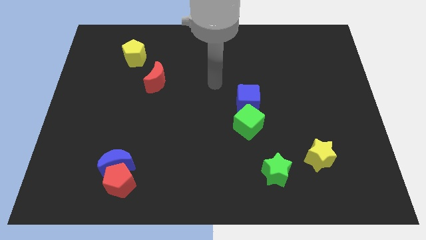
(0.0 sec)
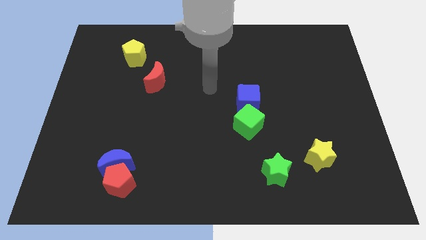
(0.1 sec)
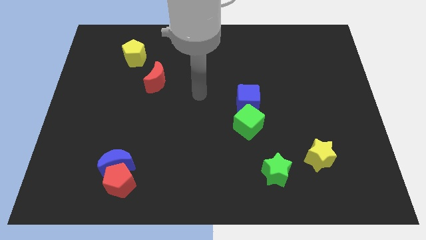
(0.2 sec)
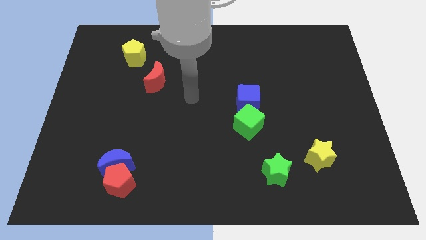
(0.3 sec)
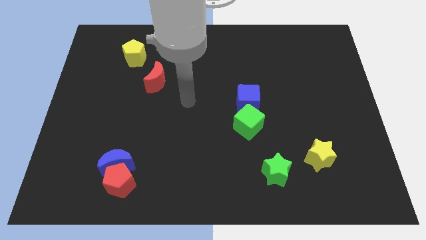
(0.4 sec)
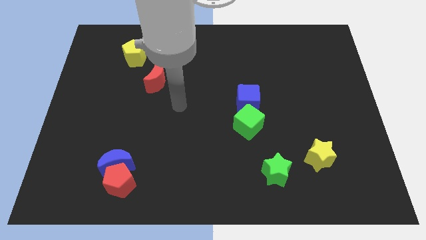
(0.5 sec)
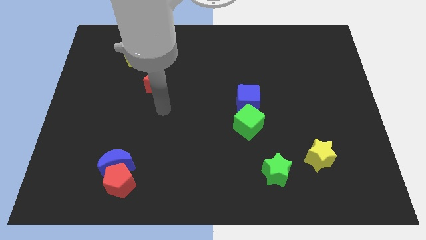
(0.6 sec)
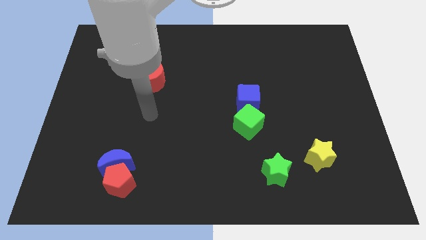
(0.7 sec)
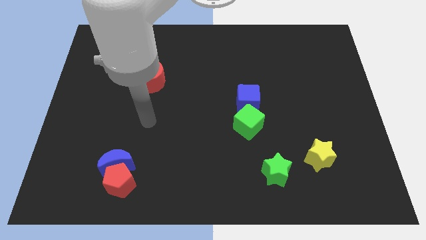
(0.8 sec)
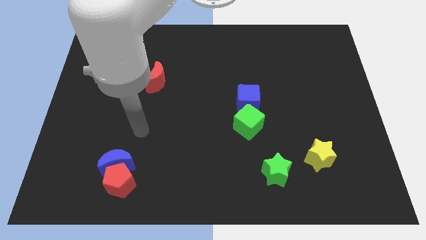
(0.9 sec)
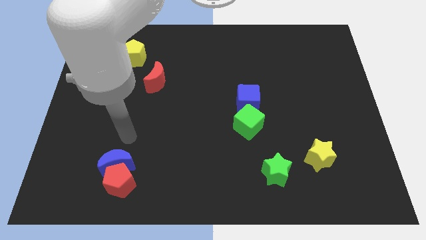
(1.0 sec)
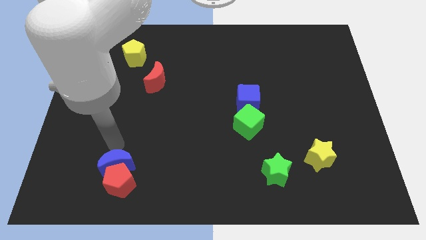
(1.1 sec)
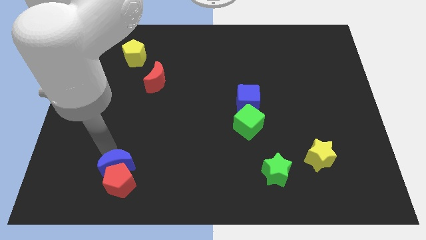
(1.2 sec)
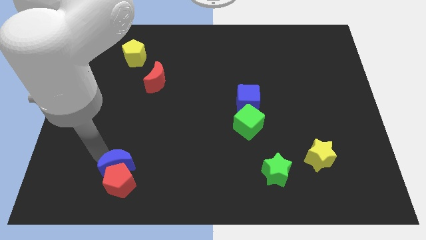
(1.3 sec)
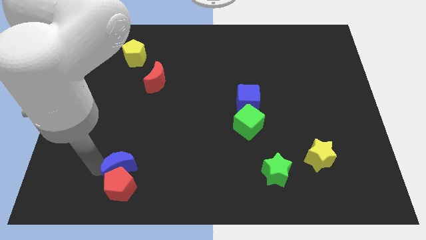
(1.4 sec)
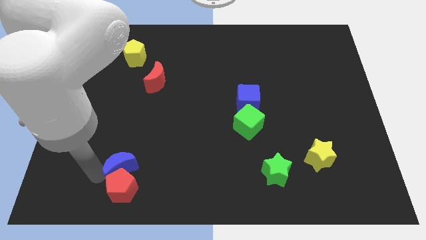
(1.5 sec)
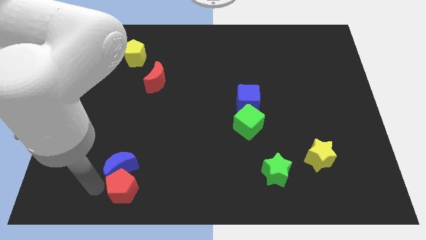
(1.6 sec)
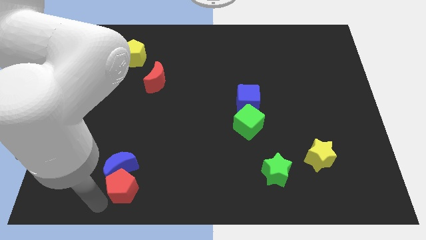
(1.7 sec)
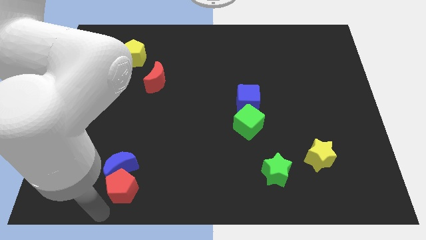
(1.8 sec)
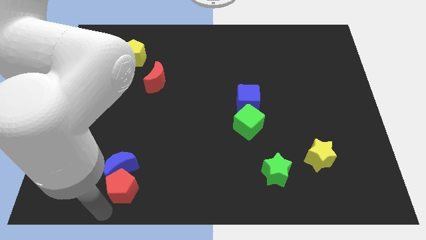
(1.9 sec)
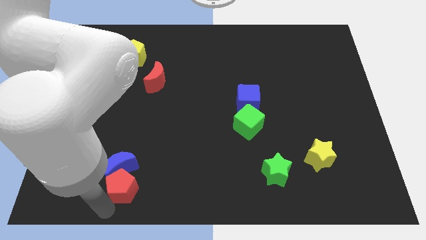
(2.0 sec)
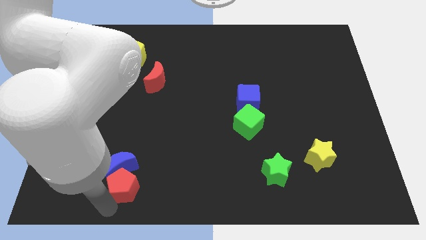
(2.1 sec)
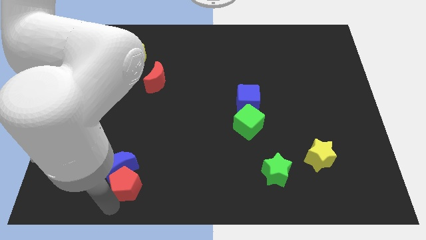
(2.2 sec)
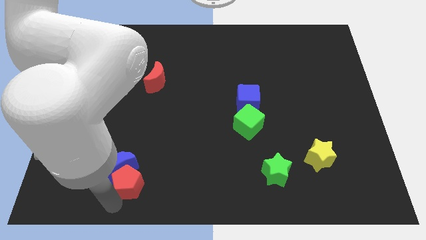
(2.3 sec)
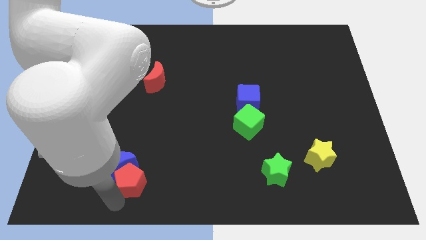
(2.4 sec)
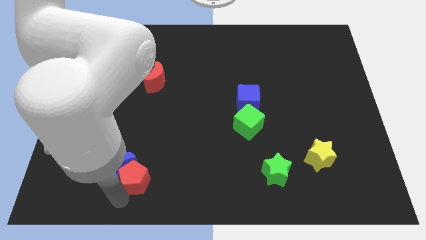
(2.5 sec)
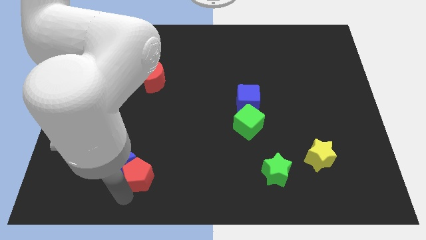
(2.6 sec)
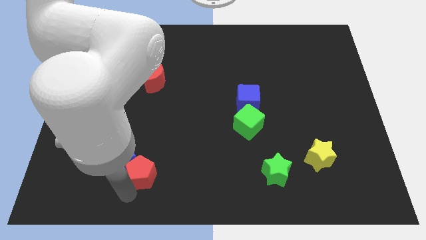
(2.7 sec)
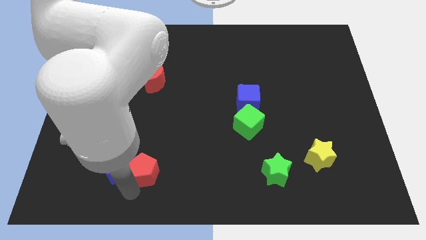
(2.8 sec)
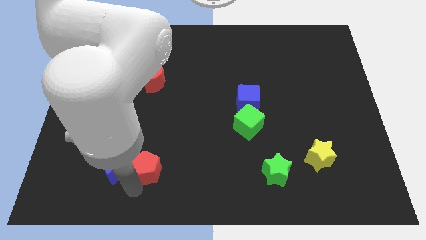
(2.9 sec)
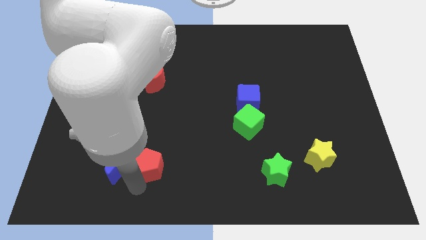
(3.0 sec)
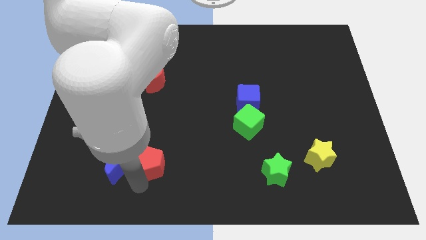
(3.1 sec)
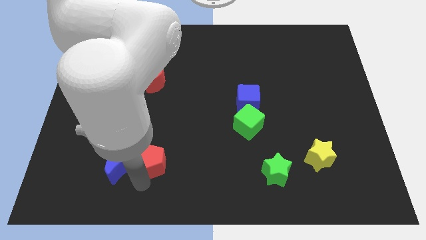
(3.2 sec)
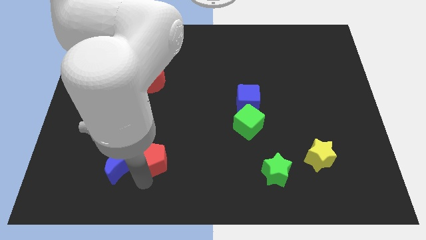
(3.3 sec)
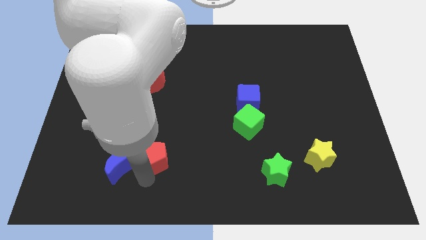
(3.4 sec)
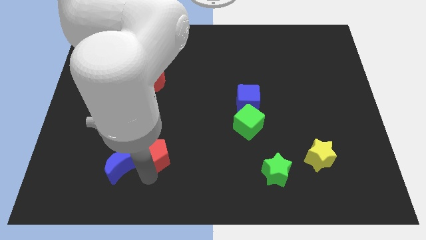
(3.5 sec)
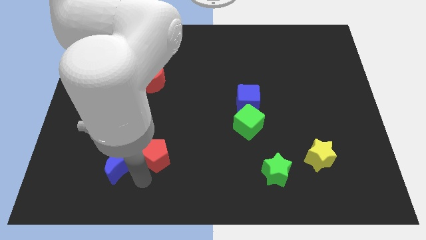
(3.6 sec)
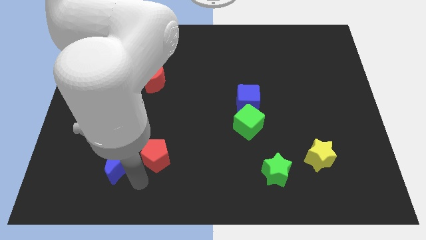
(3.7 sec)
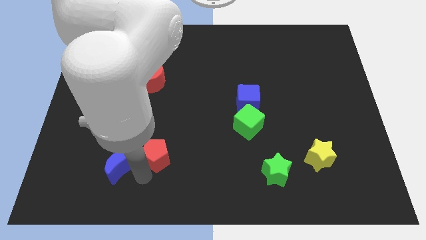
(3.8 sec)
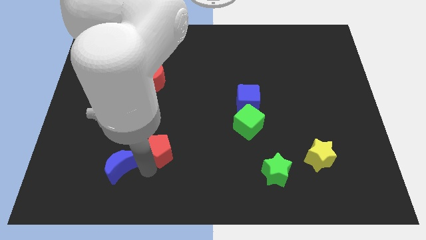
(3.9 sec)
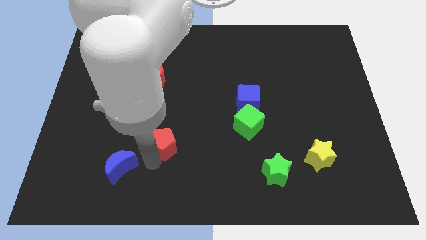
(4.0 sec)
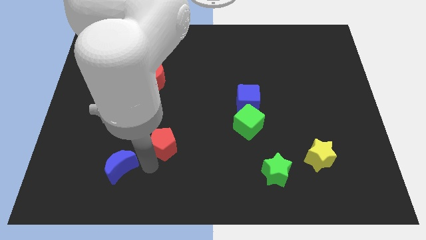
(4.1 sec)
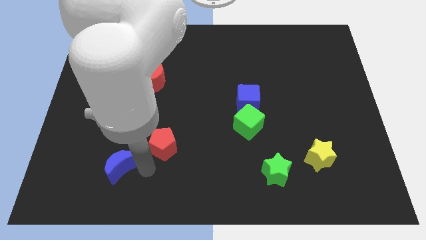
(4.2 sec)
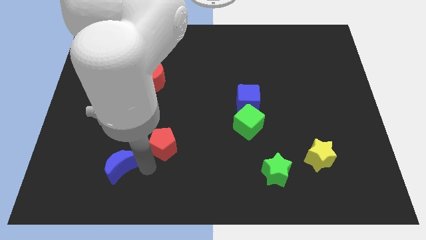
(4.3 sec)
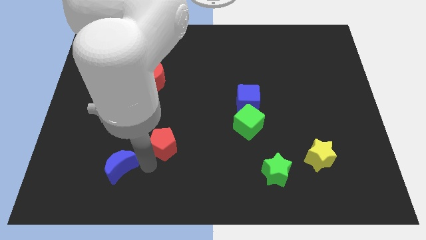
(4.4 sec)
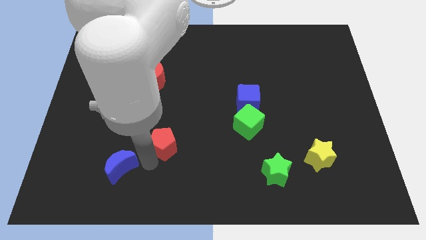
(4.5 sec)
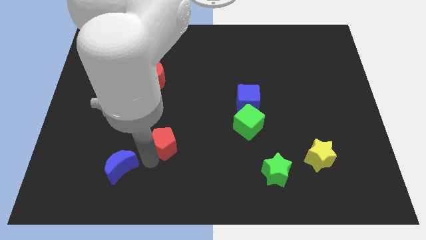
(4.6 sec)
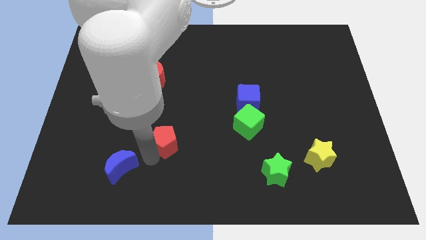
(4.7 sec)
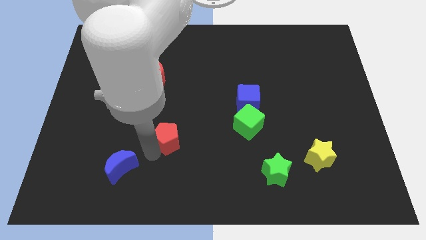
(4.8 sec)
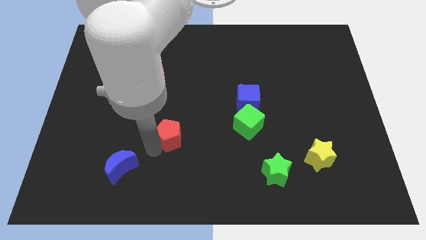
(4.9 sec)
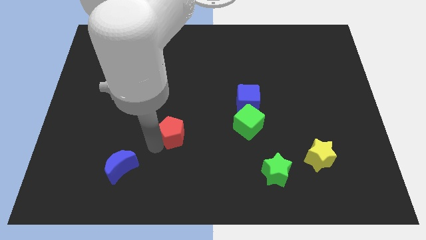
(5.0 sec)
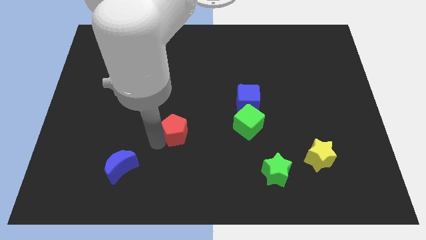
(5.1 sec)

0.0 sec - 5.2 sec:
move the red pentagon to the middle of the board

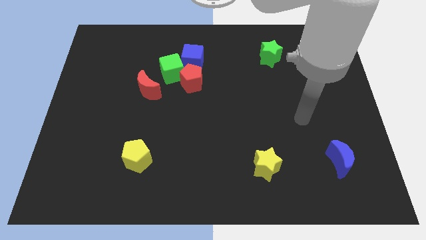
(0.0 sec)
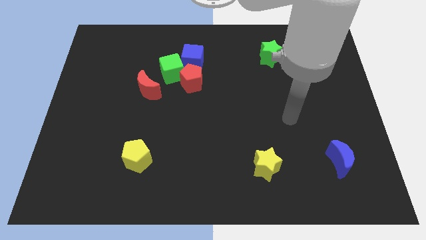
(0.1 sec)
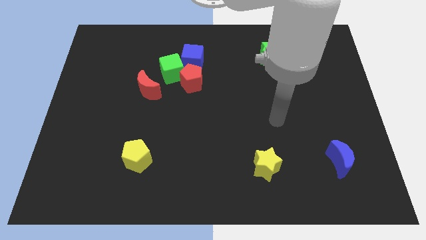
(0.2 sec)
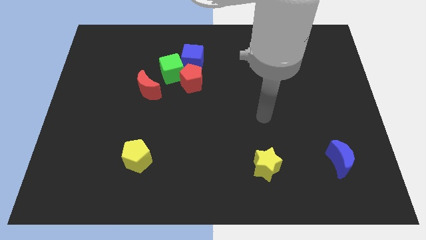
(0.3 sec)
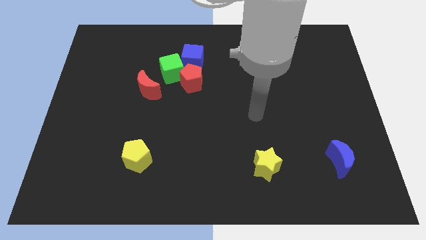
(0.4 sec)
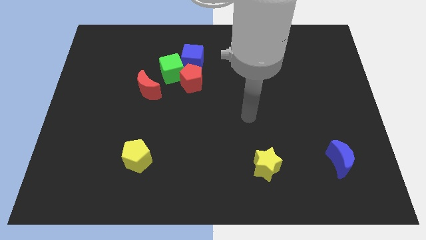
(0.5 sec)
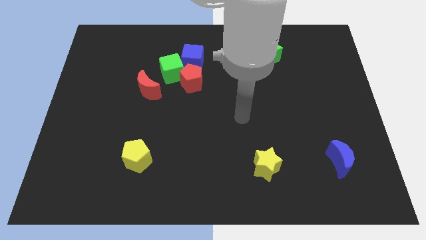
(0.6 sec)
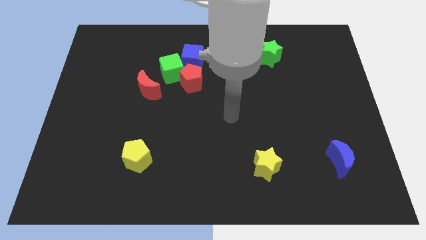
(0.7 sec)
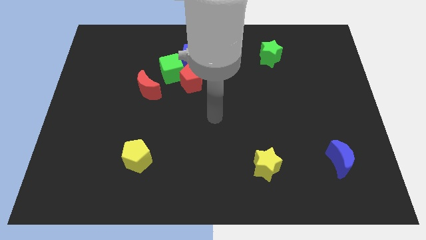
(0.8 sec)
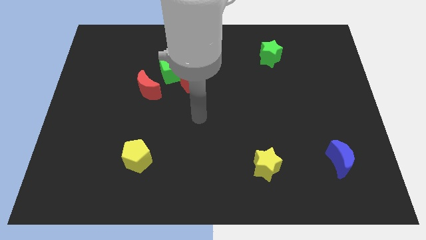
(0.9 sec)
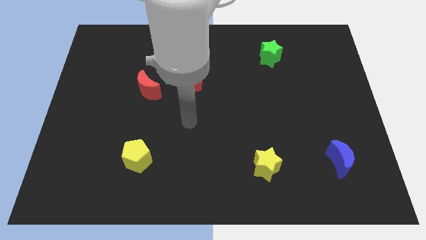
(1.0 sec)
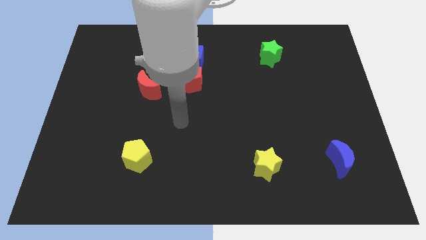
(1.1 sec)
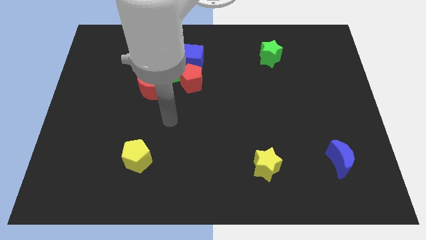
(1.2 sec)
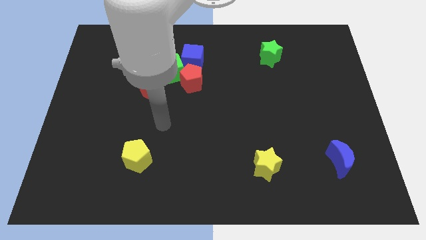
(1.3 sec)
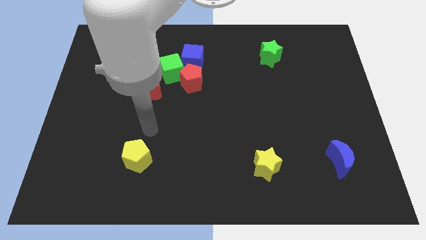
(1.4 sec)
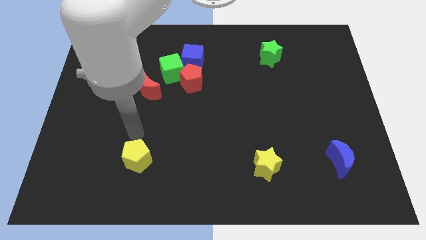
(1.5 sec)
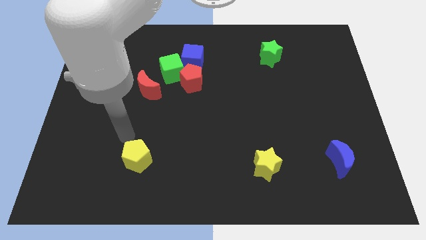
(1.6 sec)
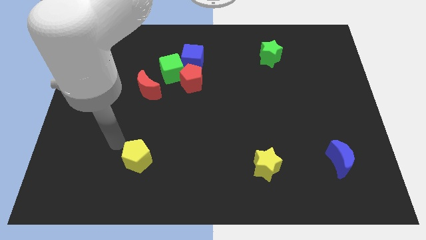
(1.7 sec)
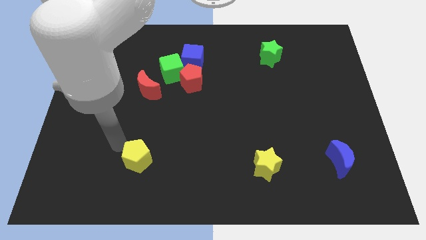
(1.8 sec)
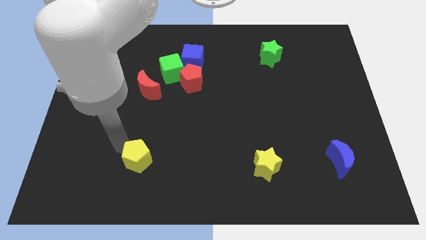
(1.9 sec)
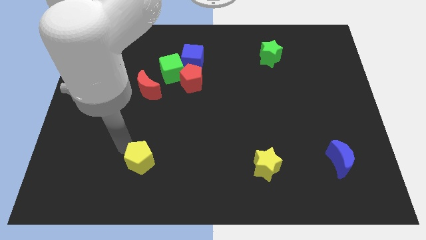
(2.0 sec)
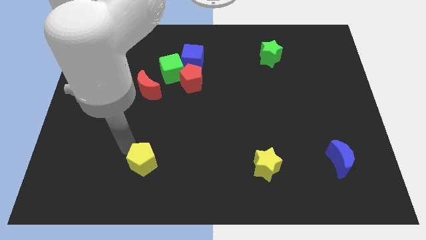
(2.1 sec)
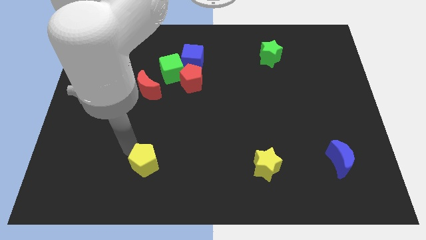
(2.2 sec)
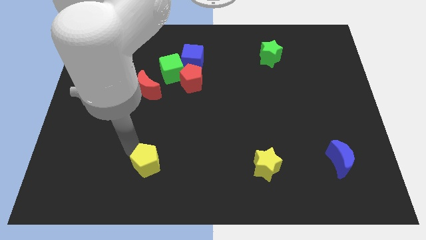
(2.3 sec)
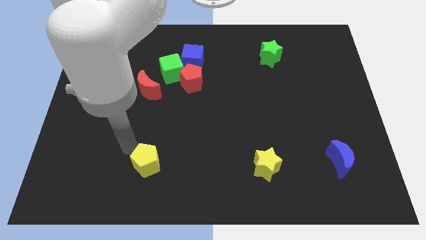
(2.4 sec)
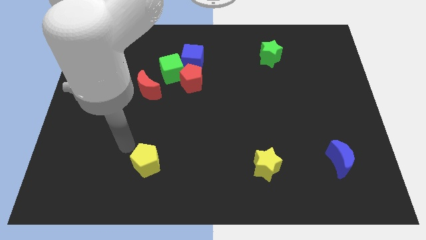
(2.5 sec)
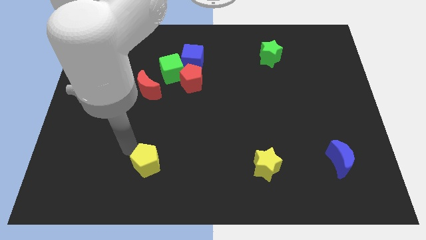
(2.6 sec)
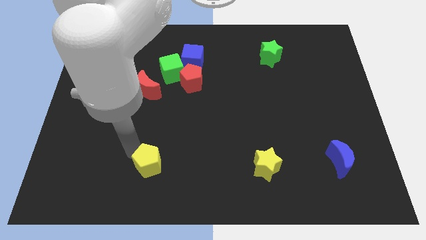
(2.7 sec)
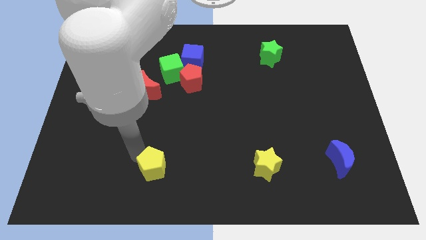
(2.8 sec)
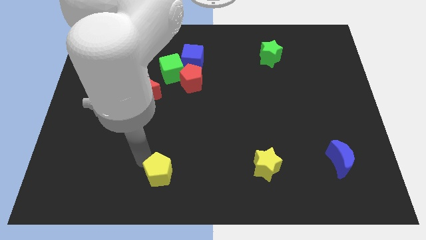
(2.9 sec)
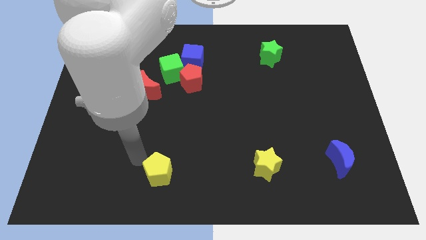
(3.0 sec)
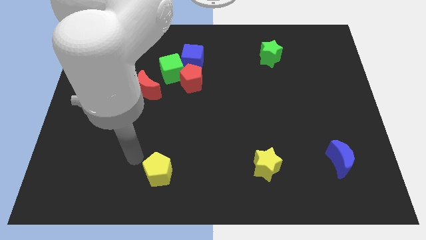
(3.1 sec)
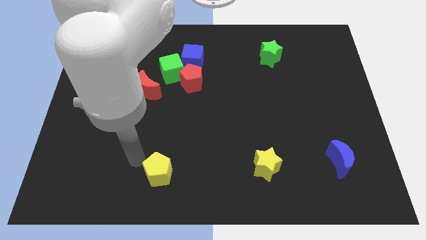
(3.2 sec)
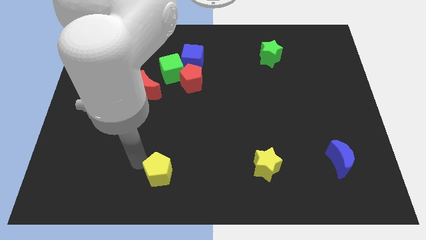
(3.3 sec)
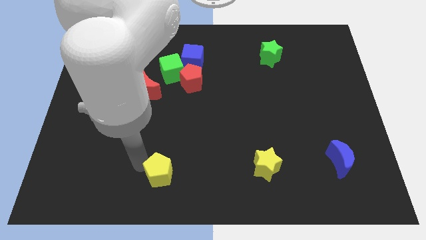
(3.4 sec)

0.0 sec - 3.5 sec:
push the yellow pentagon to the bottom
